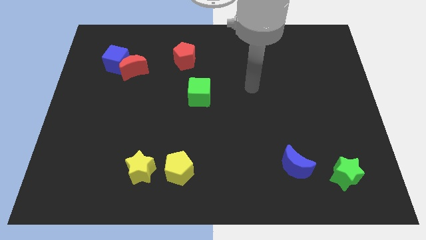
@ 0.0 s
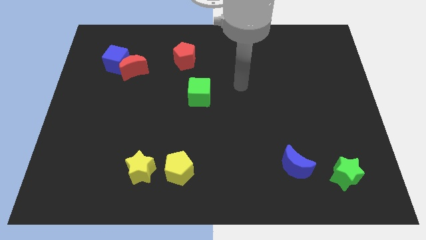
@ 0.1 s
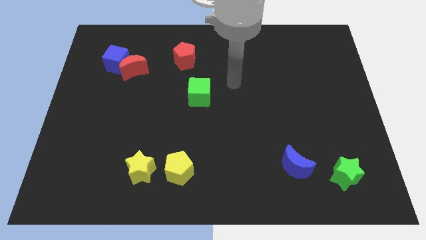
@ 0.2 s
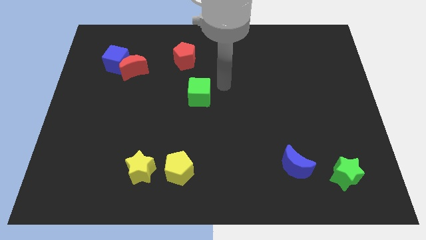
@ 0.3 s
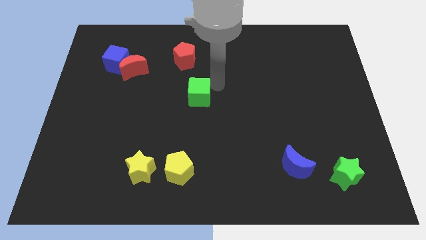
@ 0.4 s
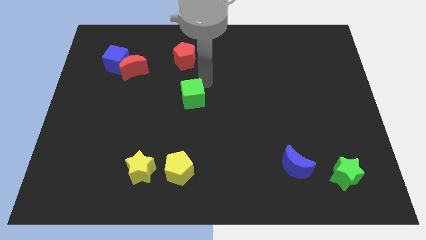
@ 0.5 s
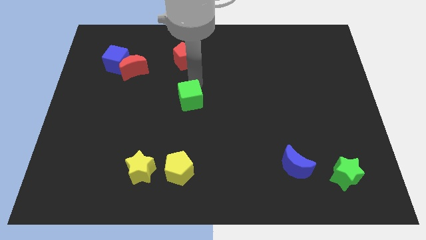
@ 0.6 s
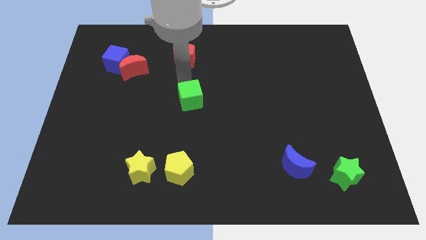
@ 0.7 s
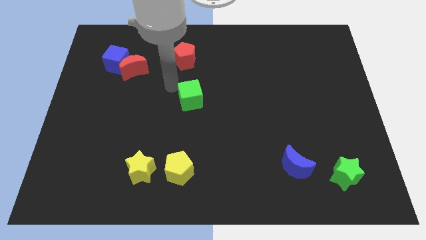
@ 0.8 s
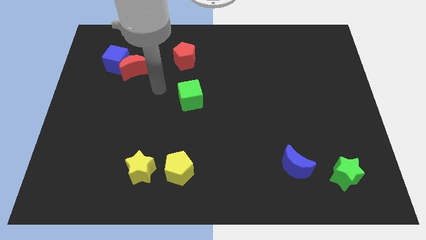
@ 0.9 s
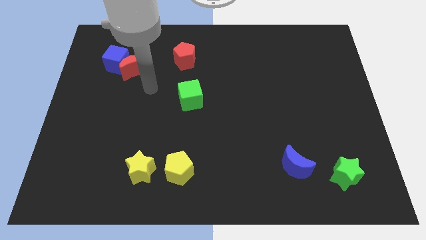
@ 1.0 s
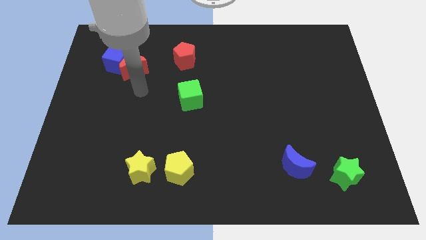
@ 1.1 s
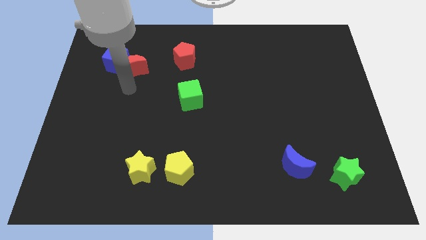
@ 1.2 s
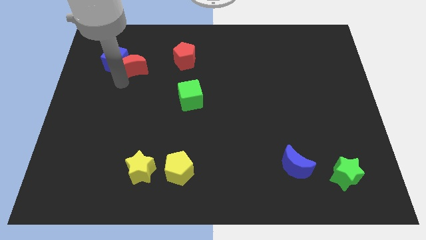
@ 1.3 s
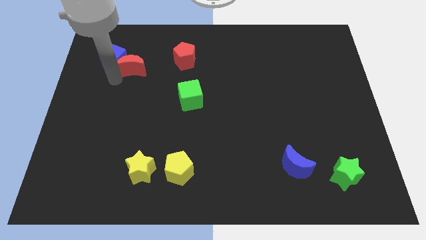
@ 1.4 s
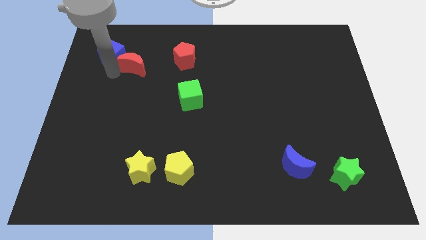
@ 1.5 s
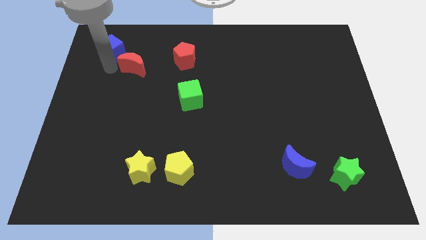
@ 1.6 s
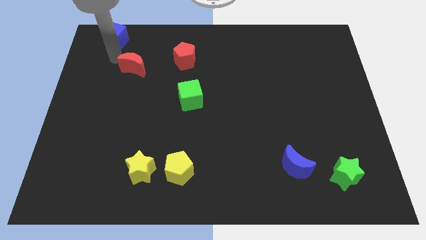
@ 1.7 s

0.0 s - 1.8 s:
separate the red moon from the blue cube

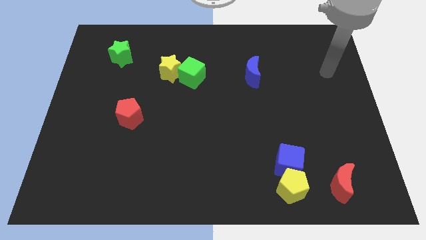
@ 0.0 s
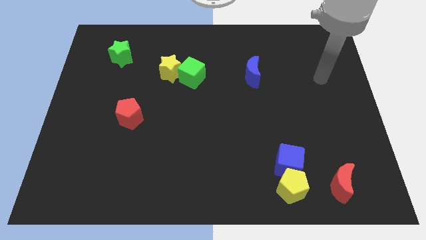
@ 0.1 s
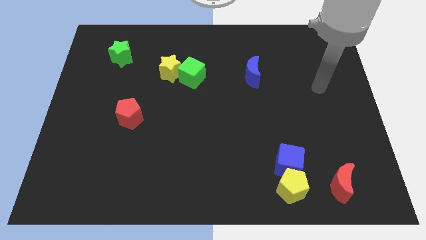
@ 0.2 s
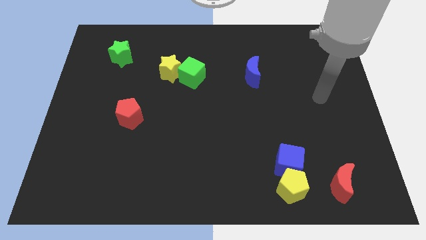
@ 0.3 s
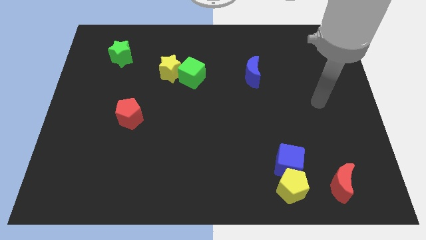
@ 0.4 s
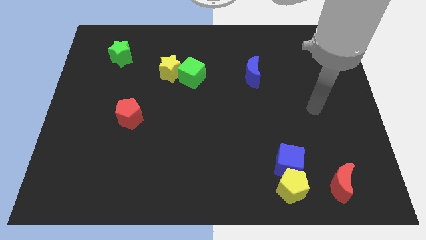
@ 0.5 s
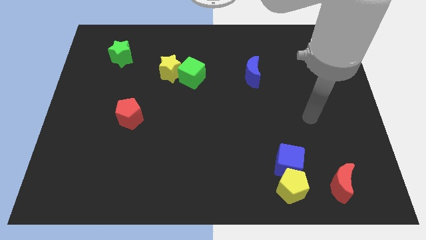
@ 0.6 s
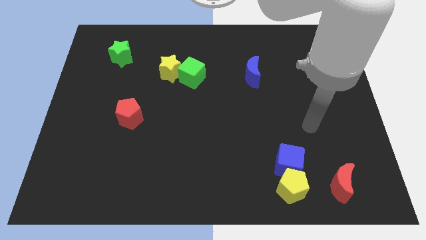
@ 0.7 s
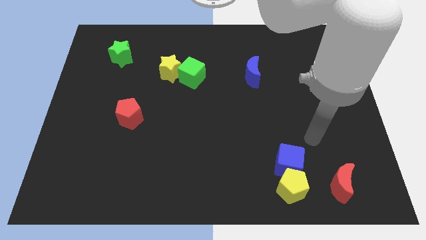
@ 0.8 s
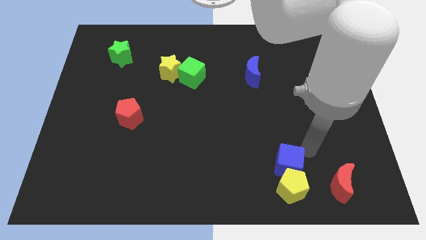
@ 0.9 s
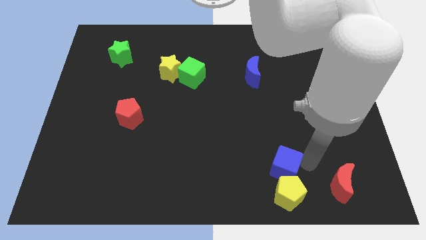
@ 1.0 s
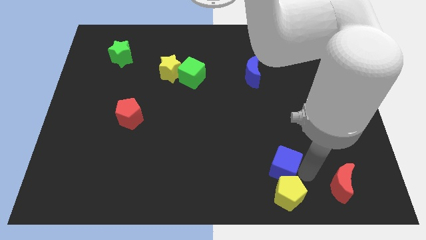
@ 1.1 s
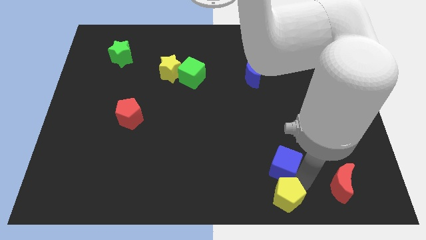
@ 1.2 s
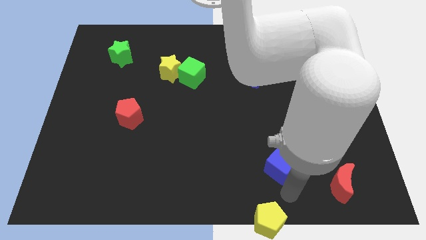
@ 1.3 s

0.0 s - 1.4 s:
separate the blue cube from the yellow pentagon

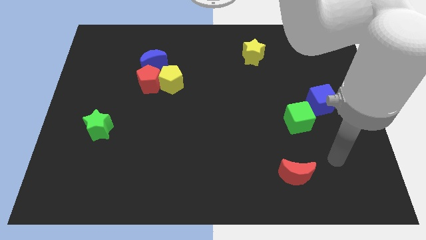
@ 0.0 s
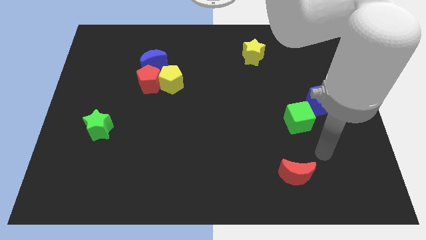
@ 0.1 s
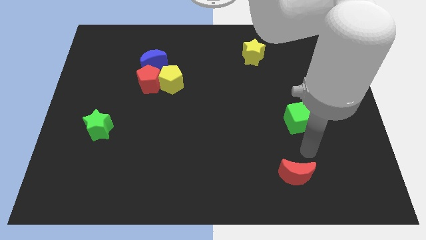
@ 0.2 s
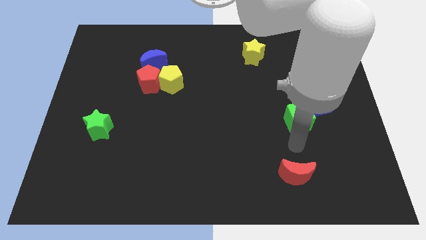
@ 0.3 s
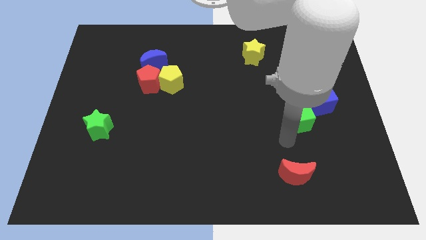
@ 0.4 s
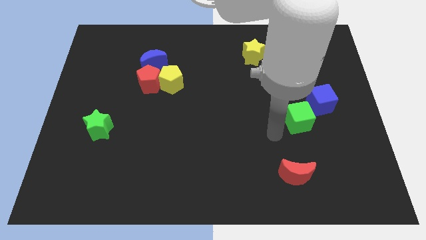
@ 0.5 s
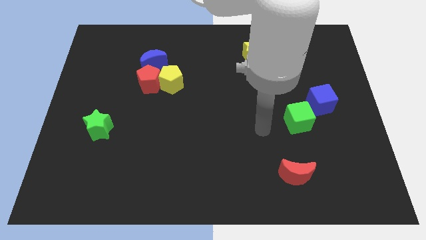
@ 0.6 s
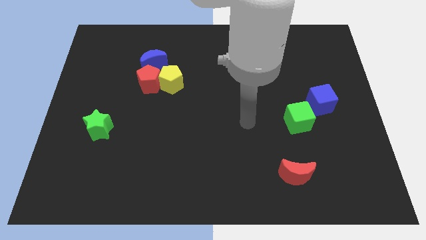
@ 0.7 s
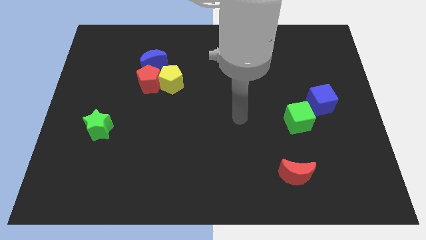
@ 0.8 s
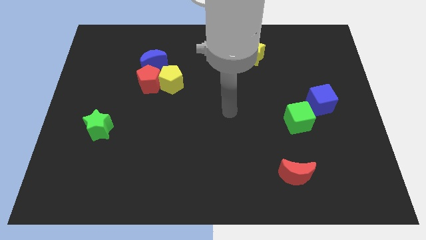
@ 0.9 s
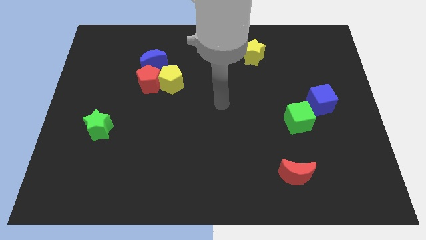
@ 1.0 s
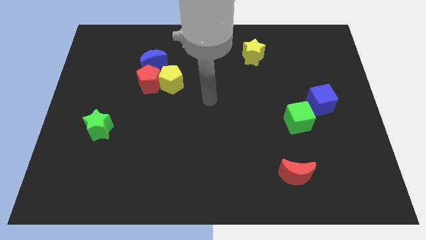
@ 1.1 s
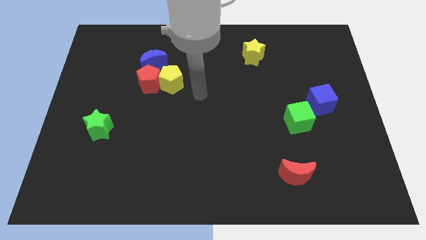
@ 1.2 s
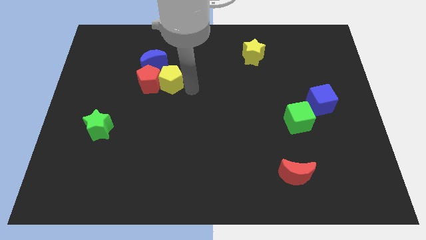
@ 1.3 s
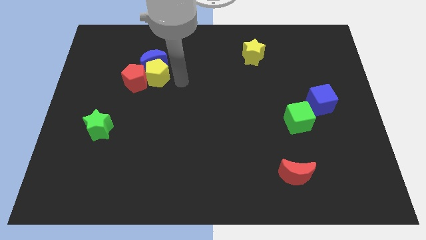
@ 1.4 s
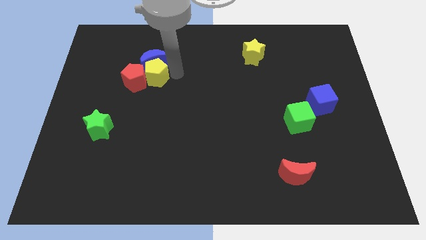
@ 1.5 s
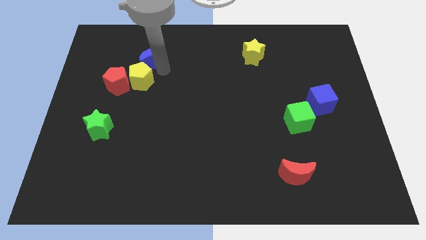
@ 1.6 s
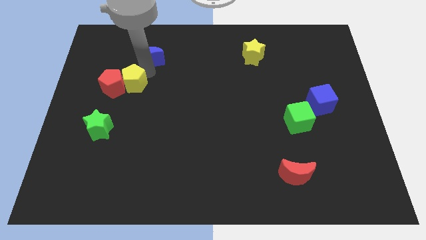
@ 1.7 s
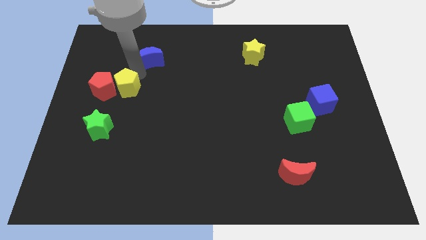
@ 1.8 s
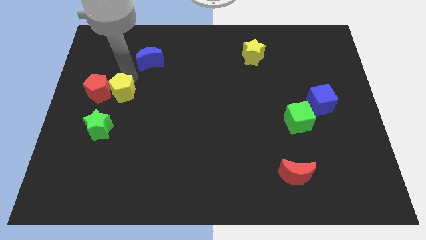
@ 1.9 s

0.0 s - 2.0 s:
pull the red pentagon apart from the yellow pentagon and blue moon

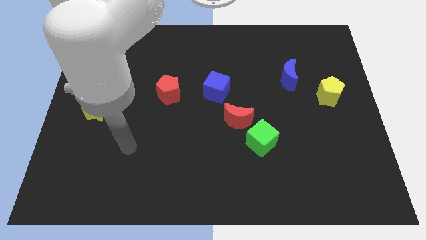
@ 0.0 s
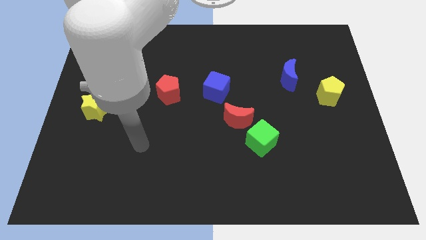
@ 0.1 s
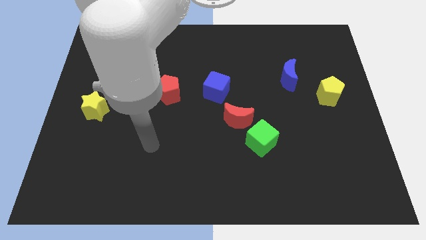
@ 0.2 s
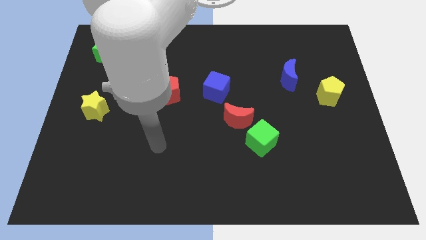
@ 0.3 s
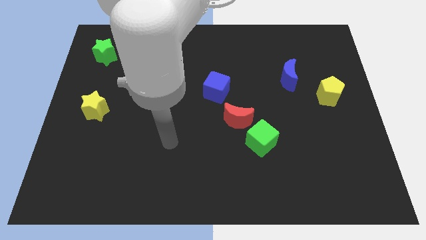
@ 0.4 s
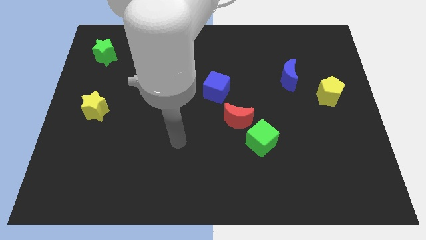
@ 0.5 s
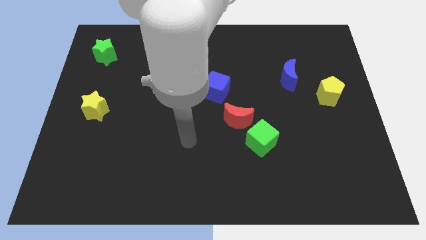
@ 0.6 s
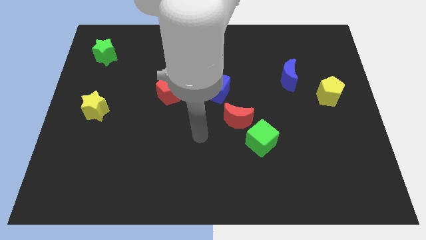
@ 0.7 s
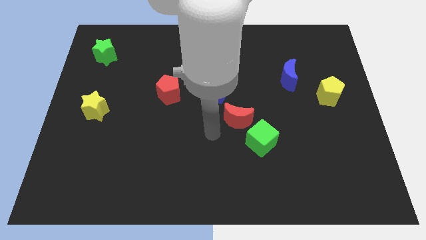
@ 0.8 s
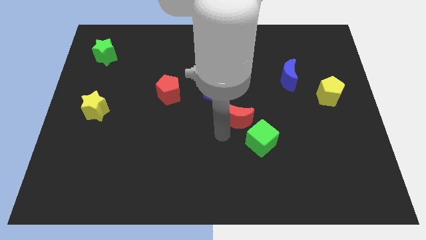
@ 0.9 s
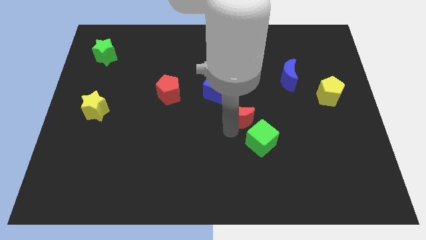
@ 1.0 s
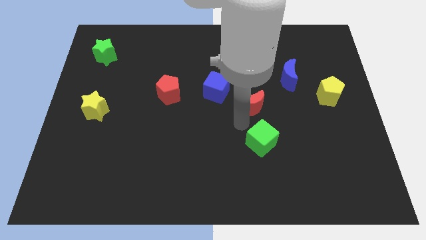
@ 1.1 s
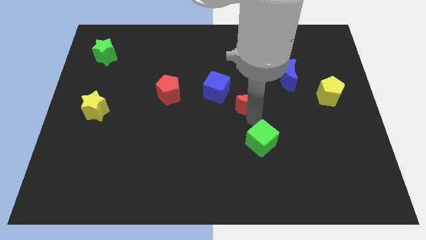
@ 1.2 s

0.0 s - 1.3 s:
separate the green cube from the red moon

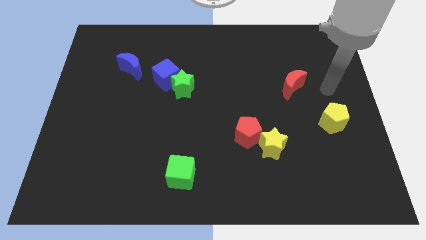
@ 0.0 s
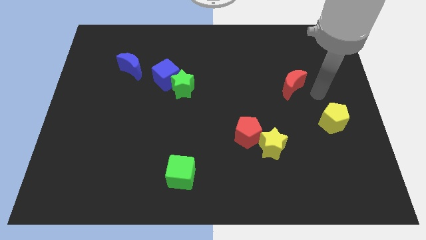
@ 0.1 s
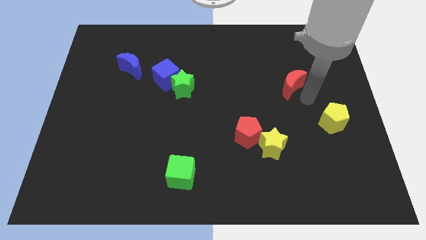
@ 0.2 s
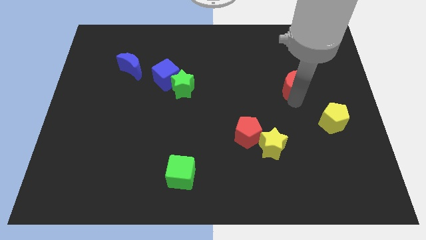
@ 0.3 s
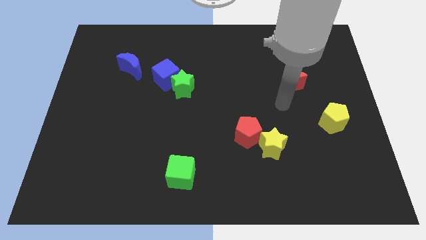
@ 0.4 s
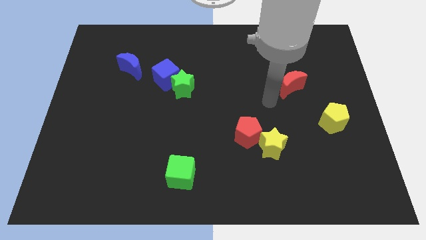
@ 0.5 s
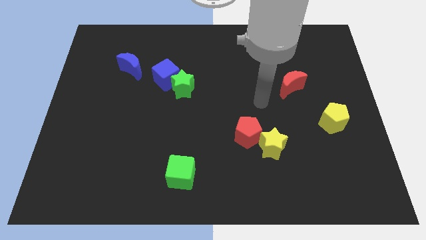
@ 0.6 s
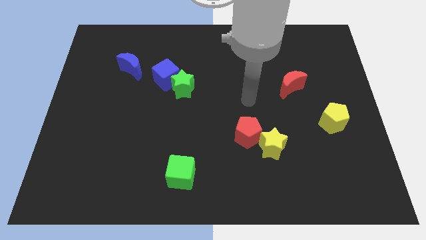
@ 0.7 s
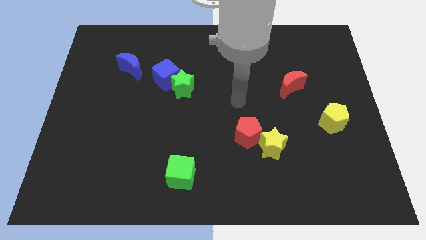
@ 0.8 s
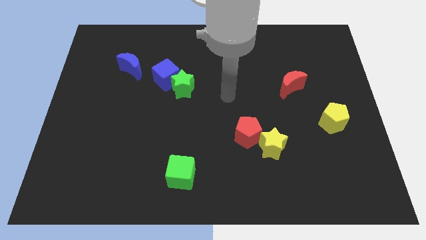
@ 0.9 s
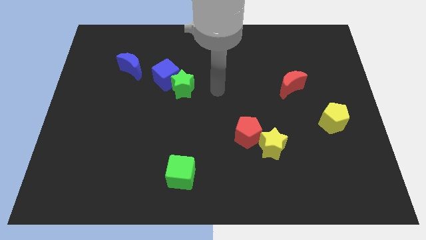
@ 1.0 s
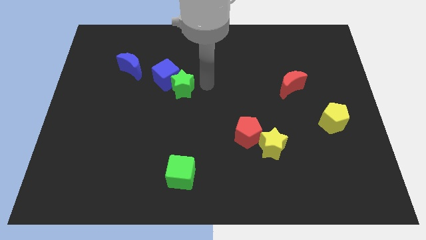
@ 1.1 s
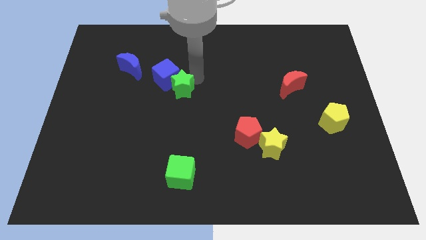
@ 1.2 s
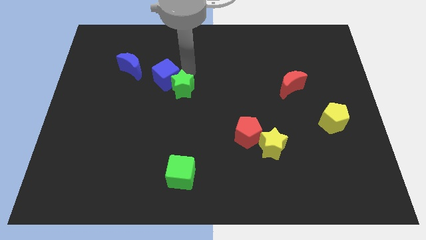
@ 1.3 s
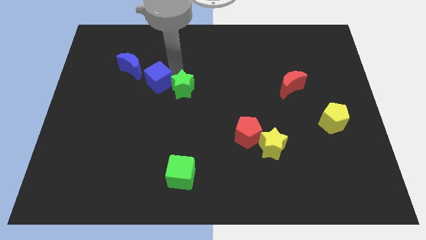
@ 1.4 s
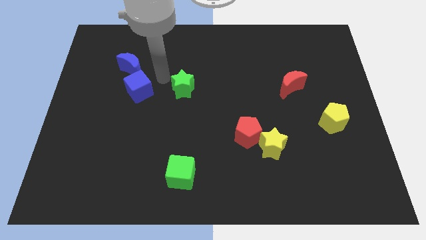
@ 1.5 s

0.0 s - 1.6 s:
pull the green star apart from the blue cube

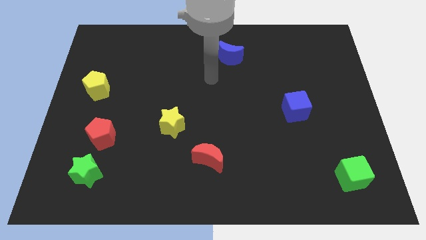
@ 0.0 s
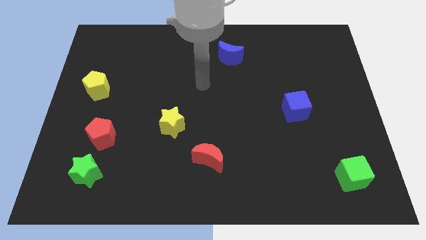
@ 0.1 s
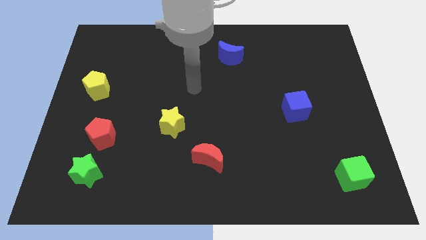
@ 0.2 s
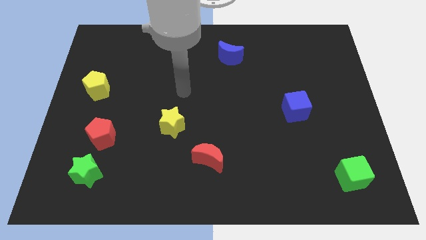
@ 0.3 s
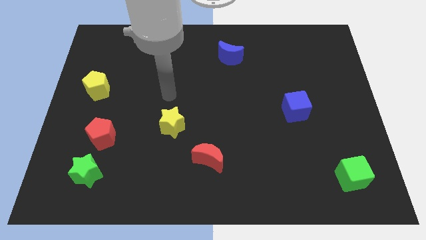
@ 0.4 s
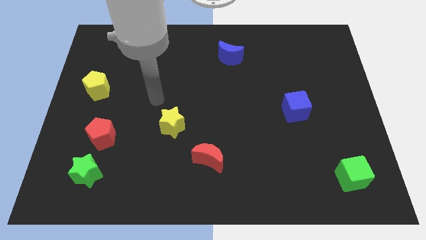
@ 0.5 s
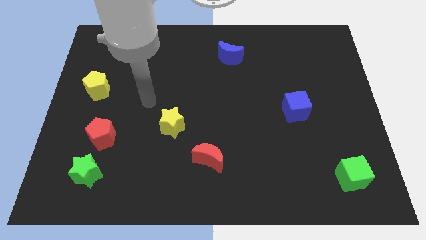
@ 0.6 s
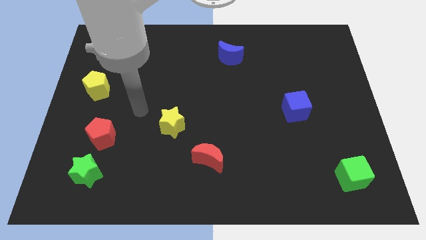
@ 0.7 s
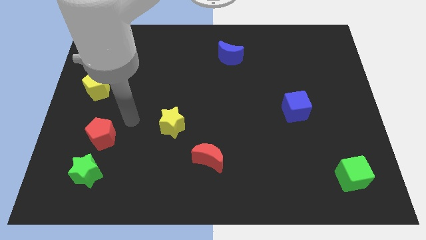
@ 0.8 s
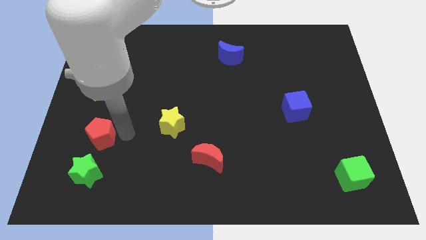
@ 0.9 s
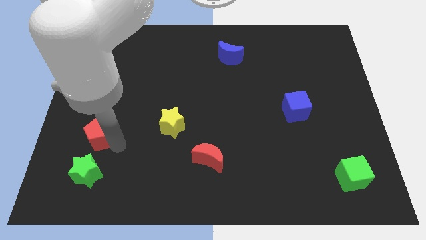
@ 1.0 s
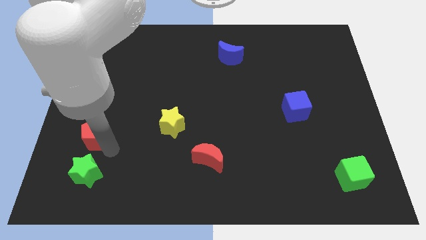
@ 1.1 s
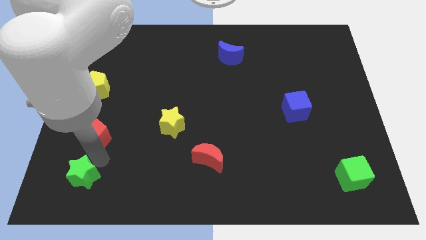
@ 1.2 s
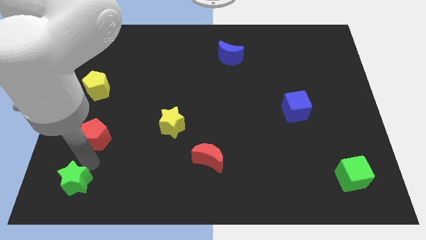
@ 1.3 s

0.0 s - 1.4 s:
move the red pentagon away from the green star
